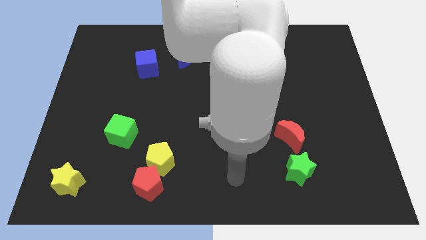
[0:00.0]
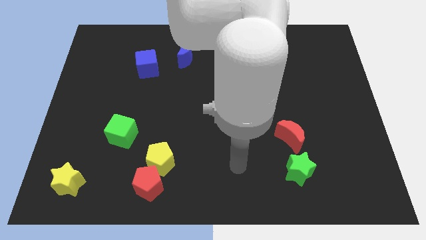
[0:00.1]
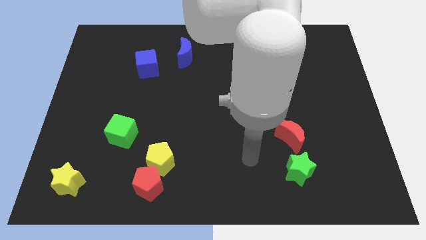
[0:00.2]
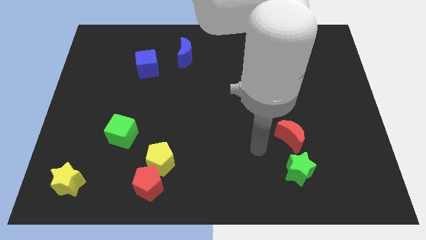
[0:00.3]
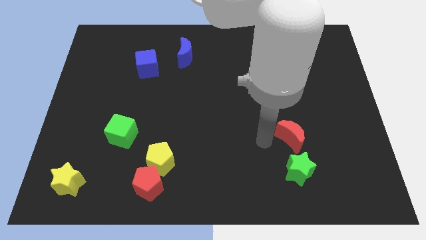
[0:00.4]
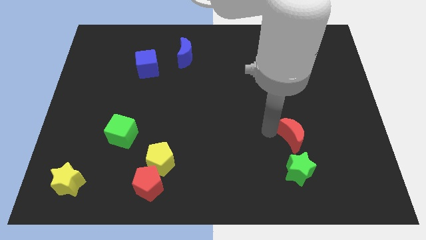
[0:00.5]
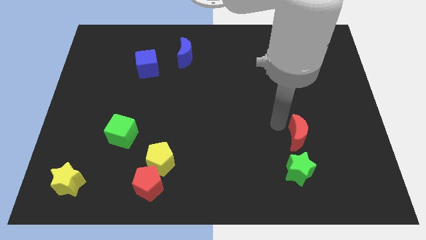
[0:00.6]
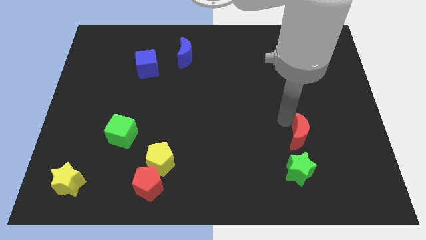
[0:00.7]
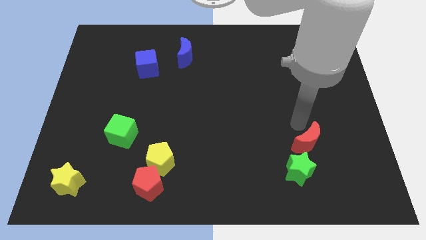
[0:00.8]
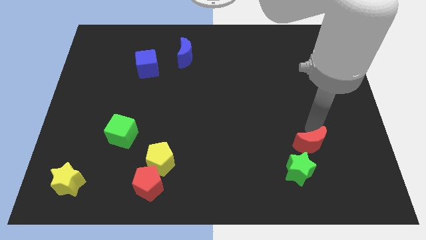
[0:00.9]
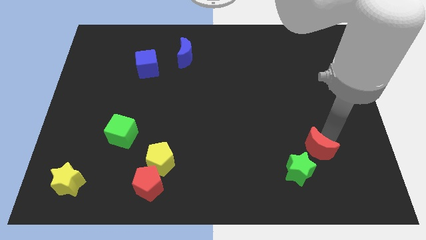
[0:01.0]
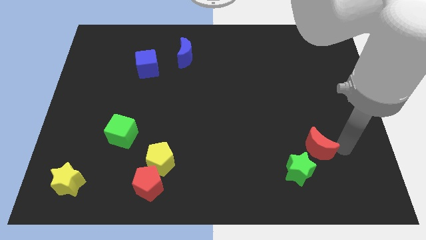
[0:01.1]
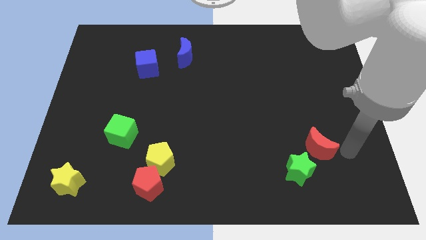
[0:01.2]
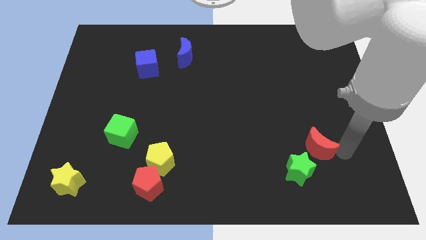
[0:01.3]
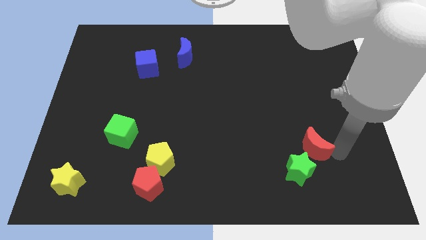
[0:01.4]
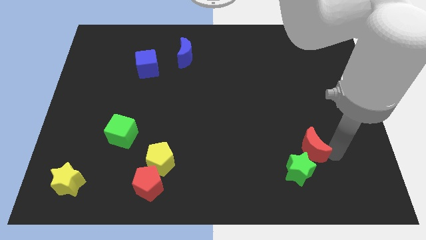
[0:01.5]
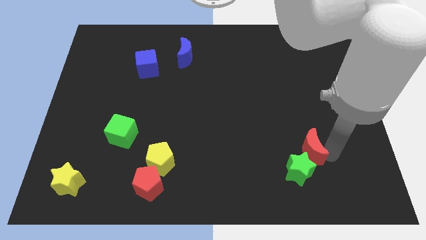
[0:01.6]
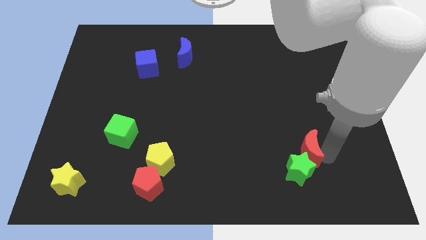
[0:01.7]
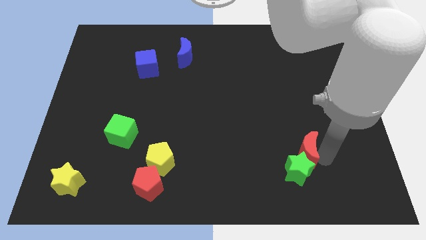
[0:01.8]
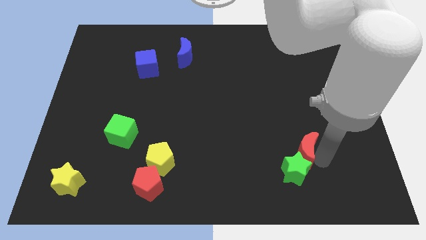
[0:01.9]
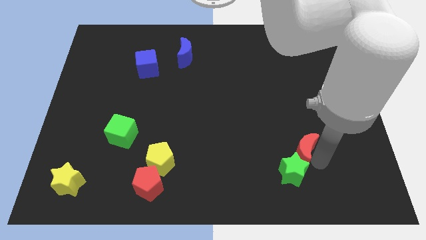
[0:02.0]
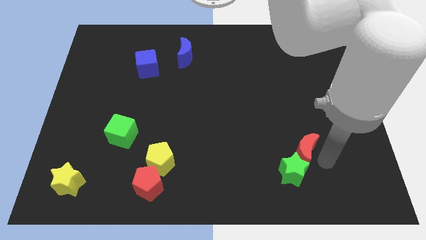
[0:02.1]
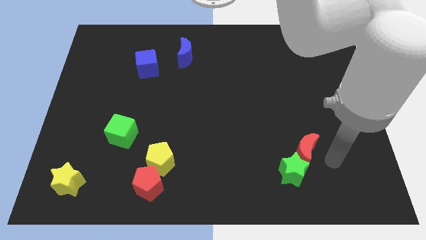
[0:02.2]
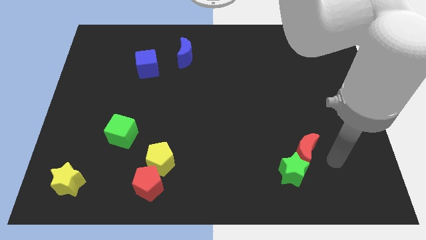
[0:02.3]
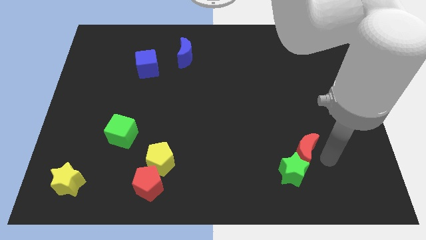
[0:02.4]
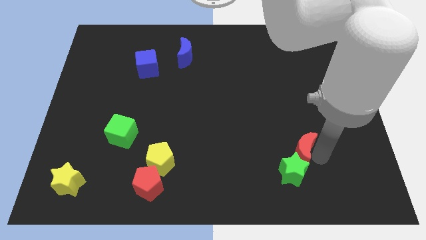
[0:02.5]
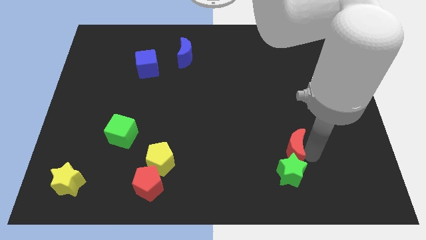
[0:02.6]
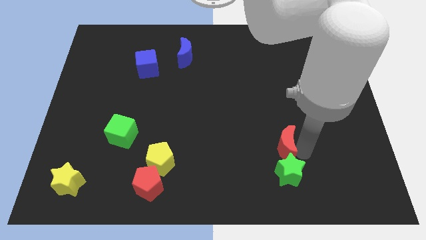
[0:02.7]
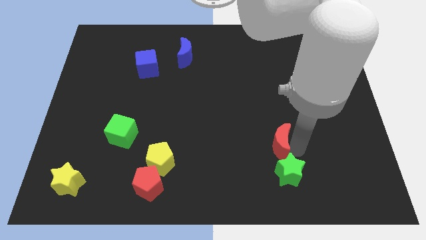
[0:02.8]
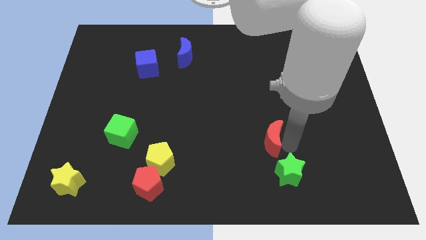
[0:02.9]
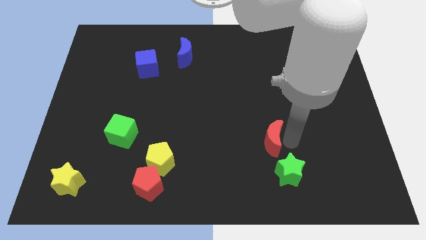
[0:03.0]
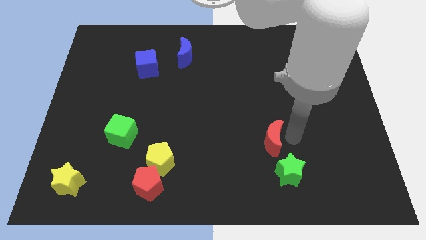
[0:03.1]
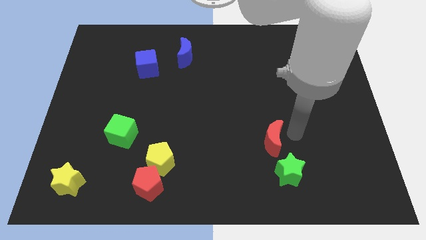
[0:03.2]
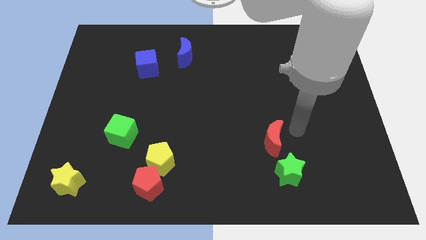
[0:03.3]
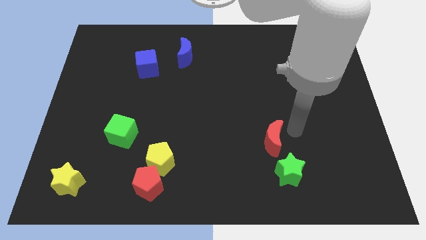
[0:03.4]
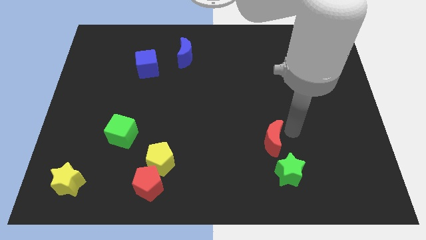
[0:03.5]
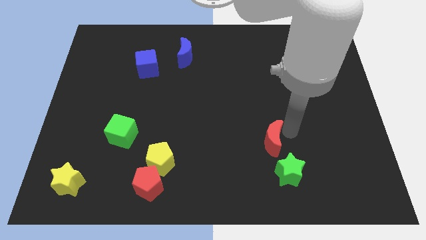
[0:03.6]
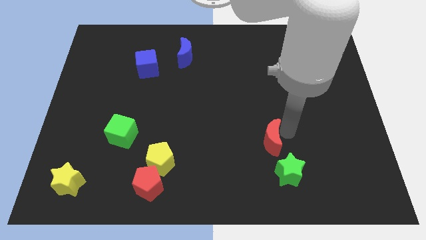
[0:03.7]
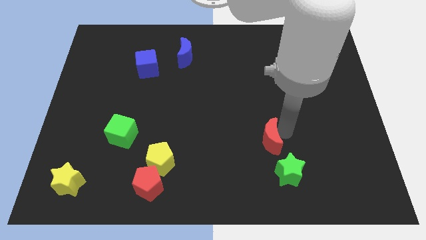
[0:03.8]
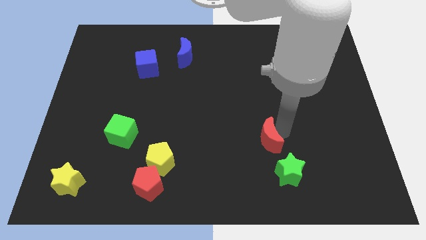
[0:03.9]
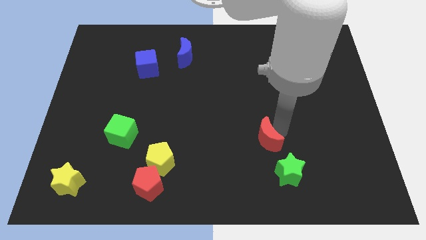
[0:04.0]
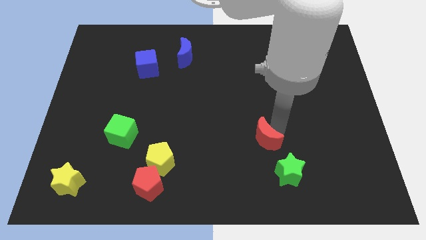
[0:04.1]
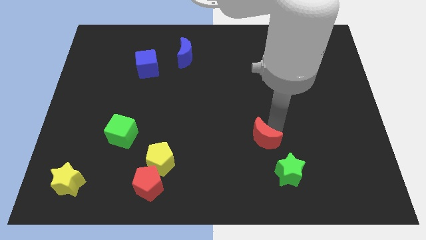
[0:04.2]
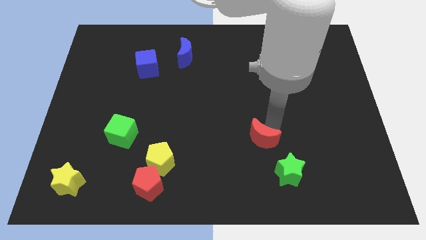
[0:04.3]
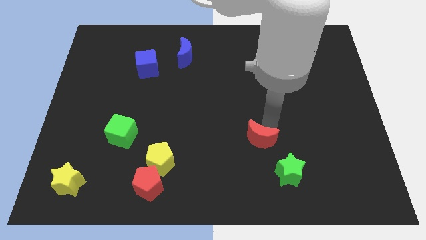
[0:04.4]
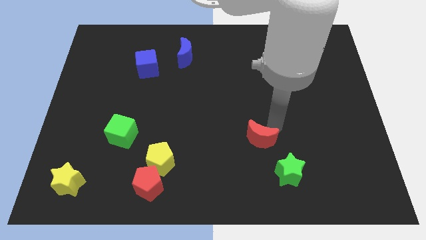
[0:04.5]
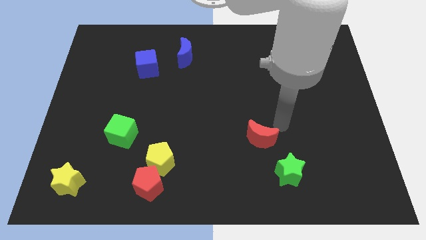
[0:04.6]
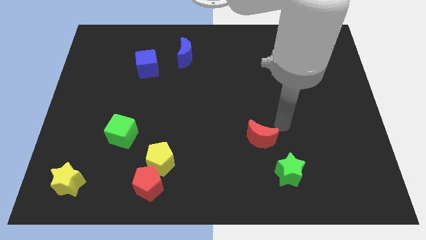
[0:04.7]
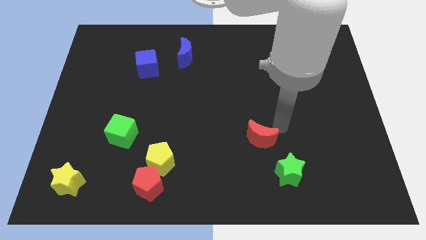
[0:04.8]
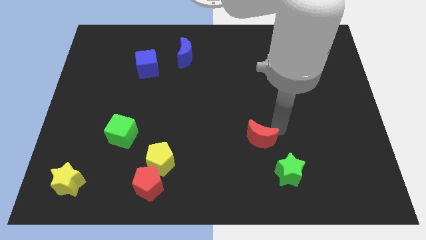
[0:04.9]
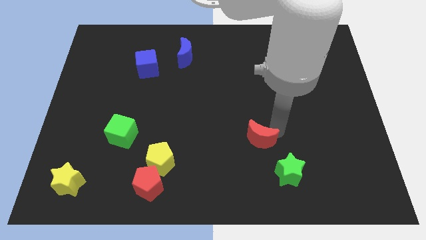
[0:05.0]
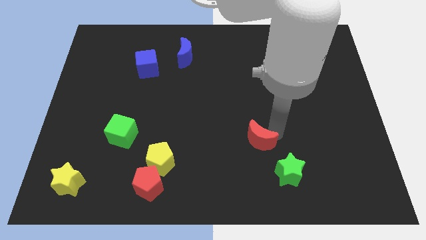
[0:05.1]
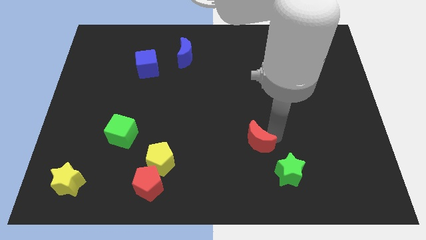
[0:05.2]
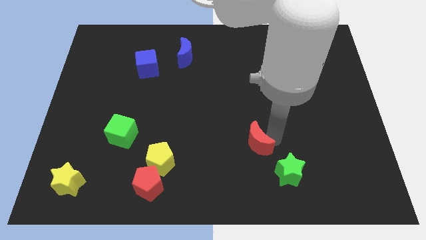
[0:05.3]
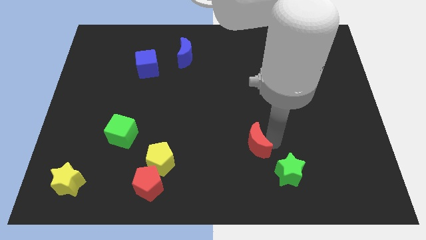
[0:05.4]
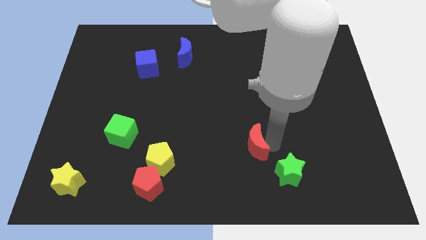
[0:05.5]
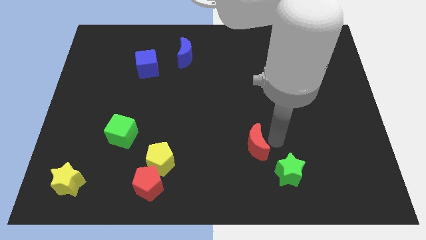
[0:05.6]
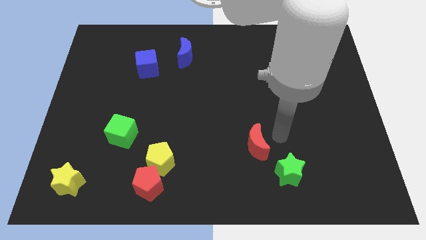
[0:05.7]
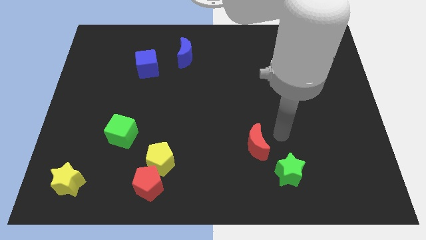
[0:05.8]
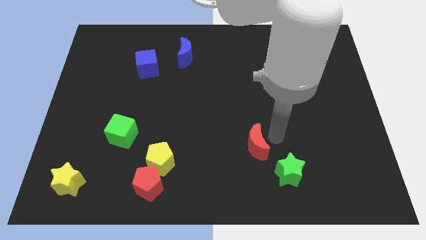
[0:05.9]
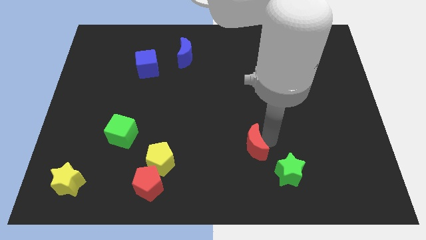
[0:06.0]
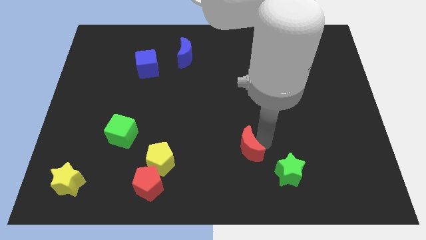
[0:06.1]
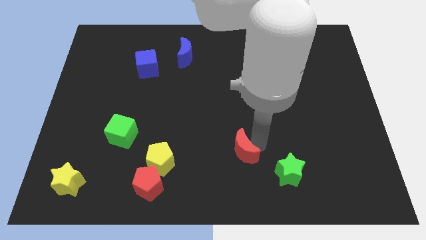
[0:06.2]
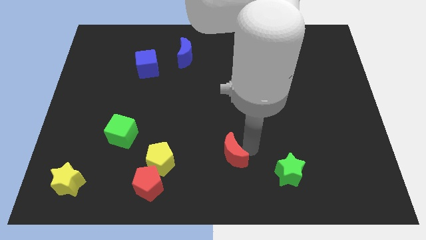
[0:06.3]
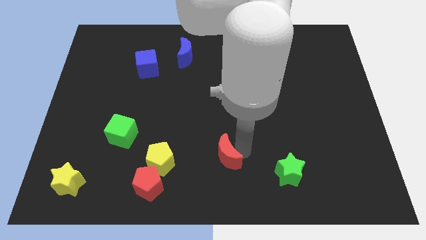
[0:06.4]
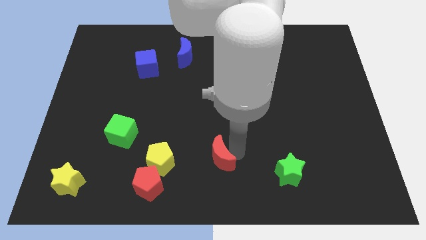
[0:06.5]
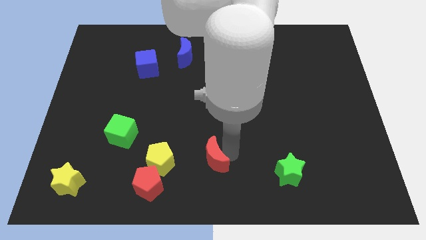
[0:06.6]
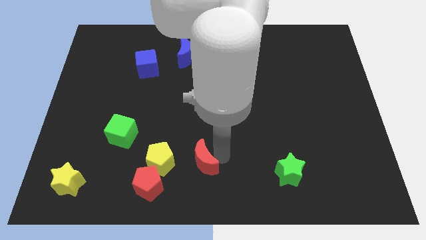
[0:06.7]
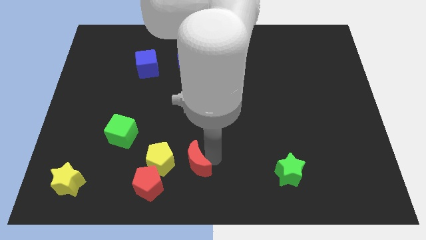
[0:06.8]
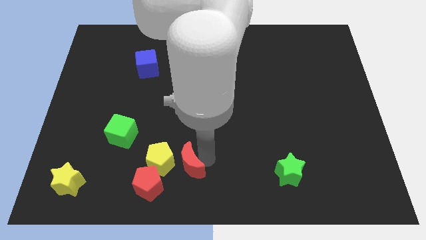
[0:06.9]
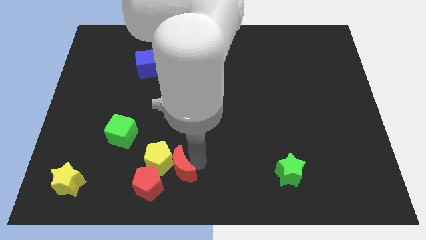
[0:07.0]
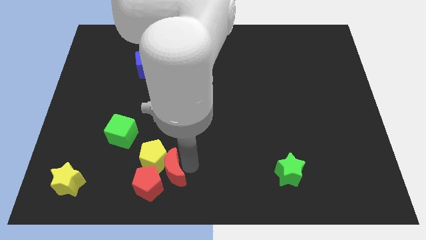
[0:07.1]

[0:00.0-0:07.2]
move the red moon towards the red pentagon
